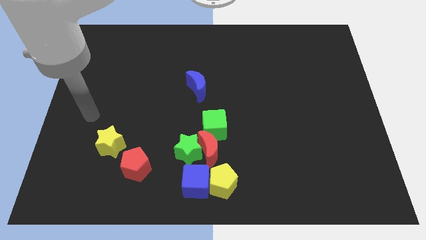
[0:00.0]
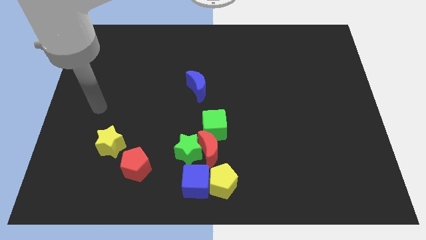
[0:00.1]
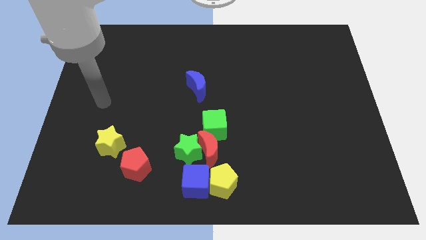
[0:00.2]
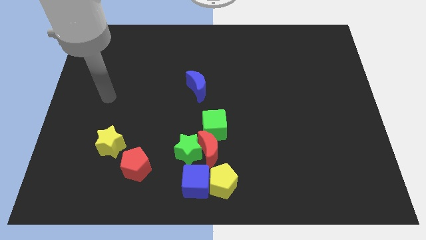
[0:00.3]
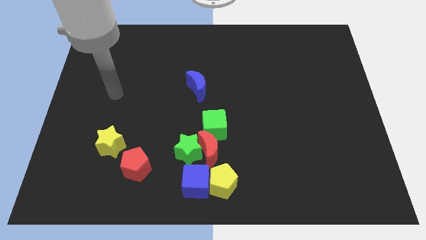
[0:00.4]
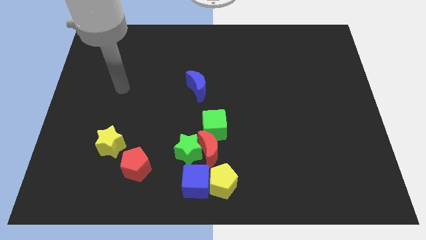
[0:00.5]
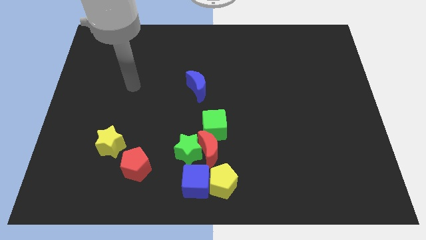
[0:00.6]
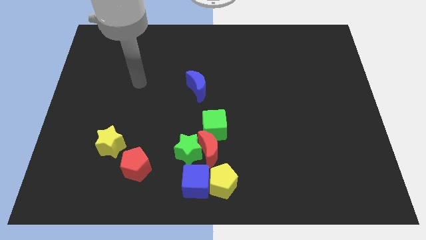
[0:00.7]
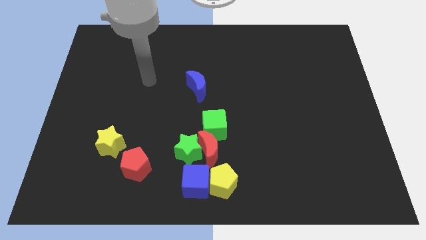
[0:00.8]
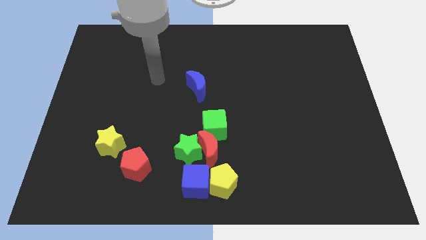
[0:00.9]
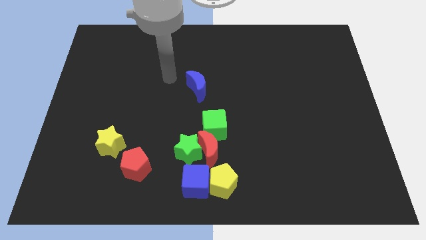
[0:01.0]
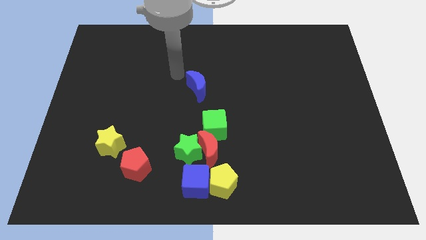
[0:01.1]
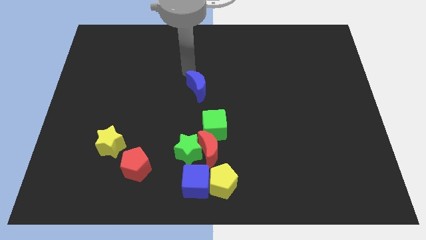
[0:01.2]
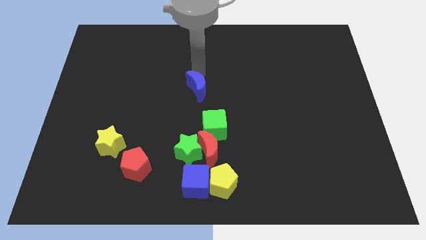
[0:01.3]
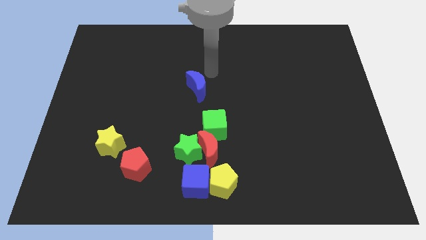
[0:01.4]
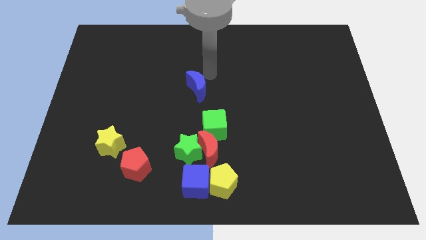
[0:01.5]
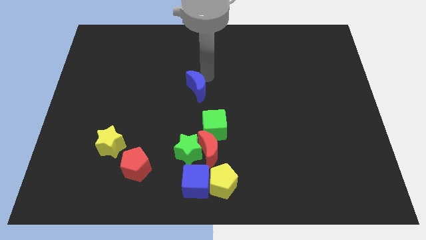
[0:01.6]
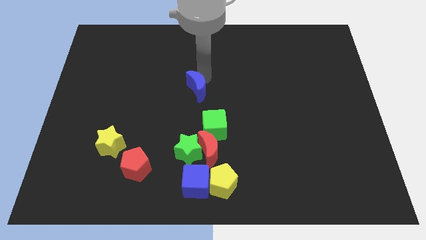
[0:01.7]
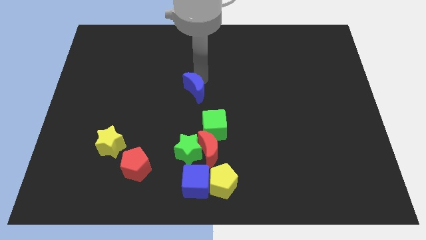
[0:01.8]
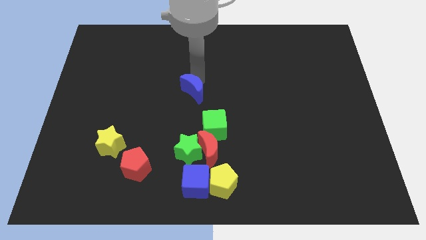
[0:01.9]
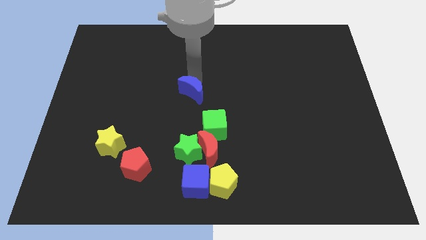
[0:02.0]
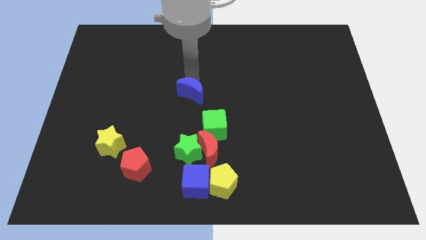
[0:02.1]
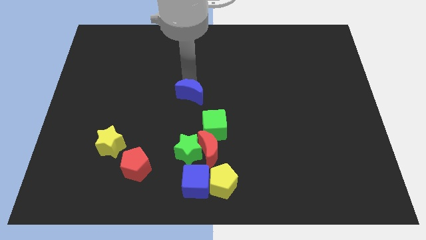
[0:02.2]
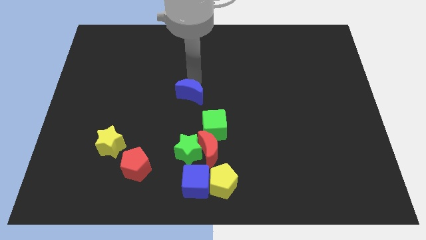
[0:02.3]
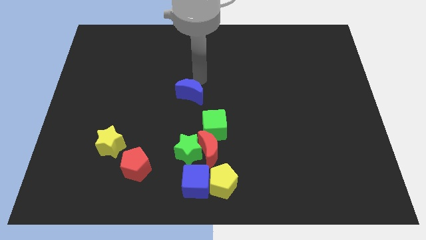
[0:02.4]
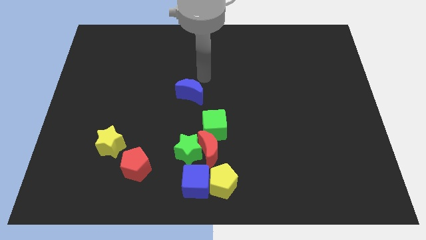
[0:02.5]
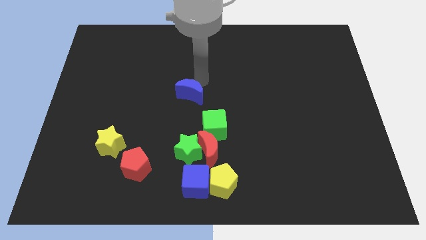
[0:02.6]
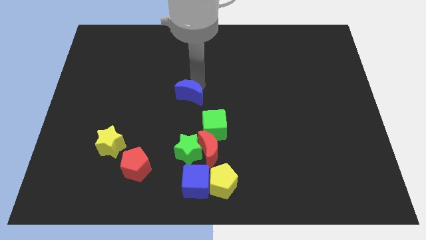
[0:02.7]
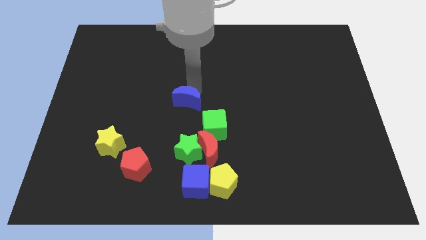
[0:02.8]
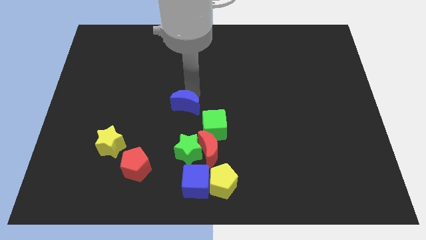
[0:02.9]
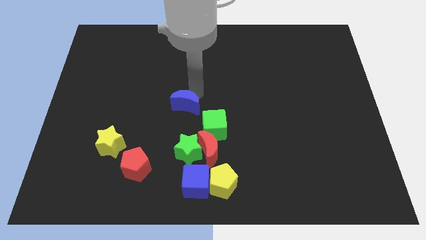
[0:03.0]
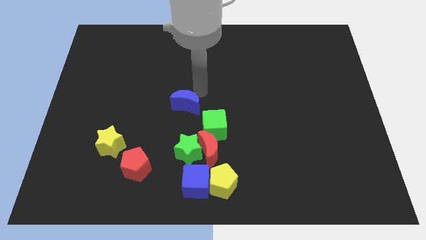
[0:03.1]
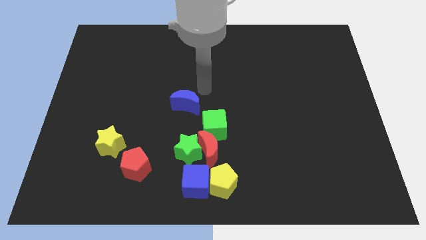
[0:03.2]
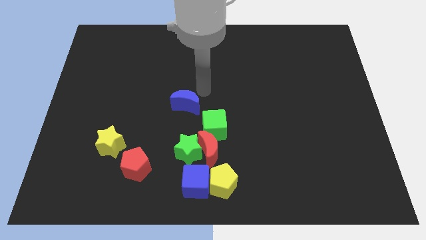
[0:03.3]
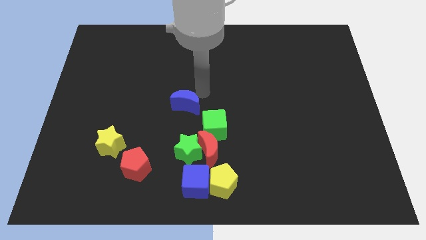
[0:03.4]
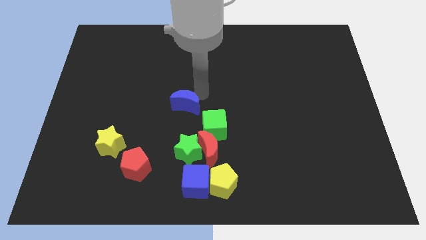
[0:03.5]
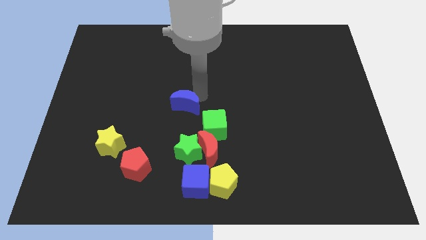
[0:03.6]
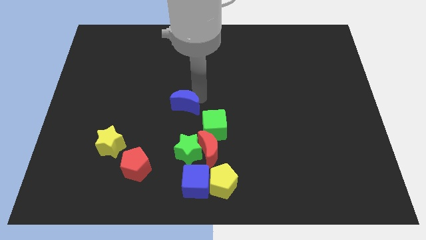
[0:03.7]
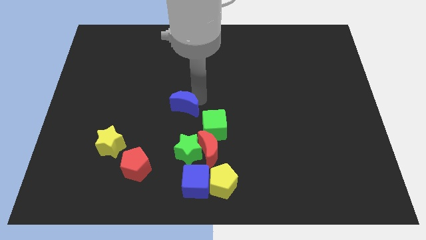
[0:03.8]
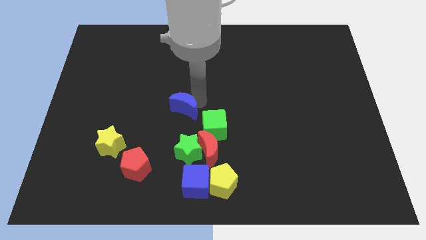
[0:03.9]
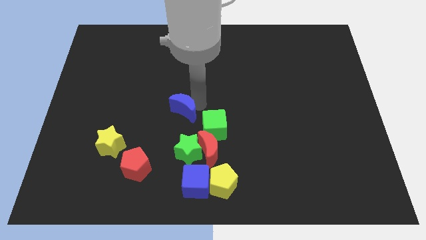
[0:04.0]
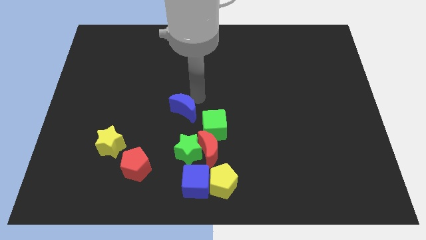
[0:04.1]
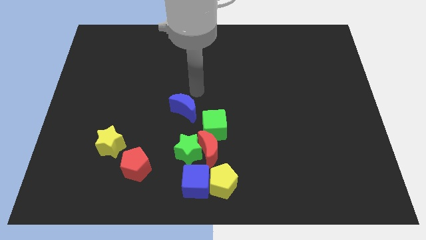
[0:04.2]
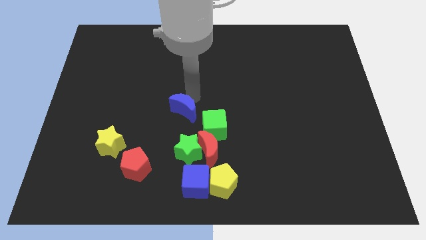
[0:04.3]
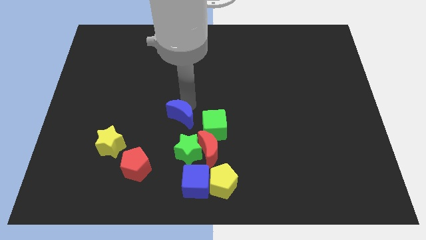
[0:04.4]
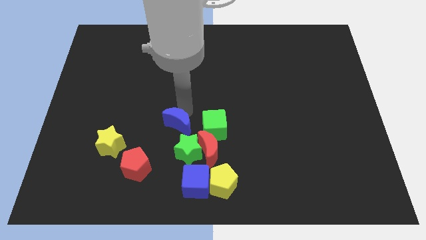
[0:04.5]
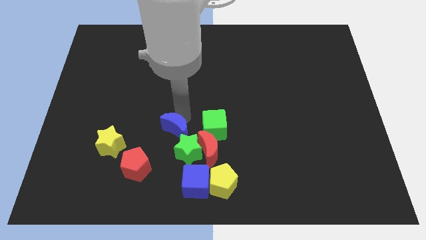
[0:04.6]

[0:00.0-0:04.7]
push the blue moon diagonally up and to the right of the red pentagon

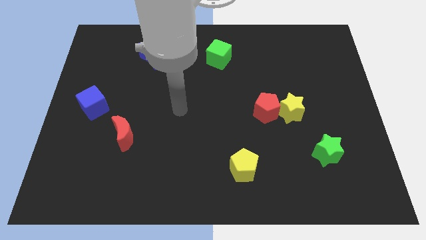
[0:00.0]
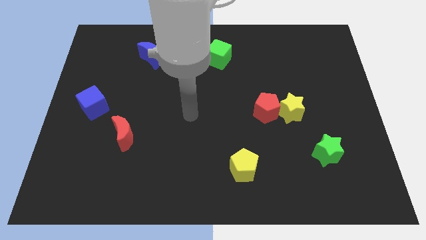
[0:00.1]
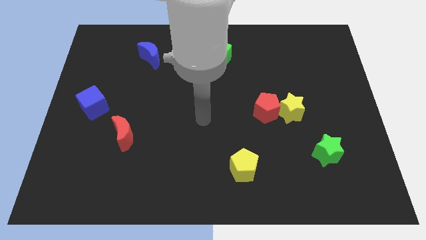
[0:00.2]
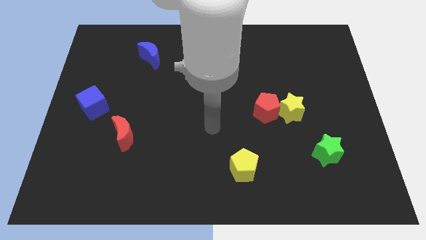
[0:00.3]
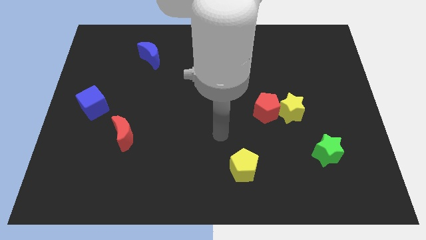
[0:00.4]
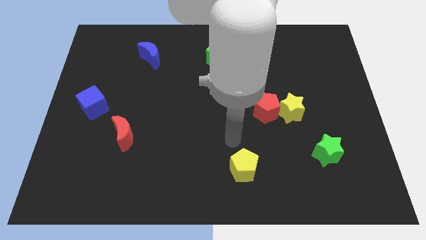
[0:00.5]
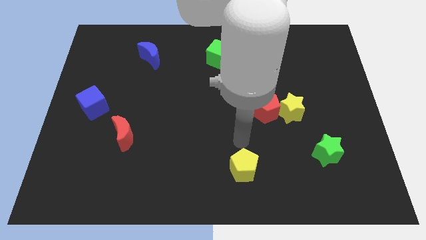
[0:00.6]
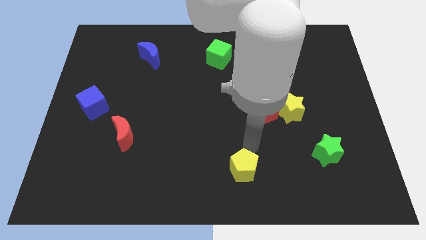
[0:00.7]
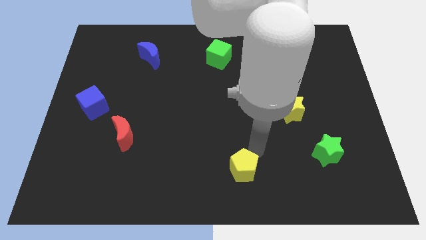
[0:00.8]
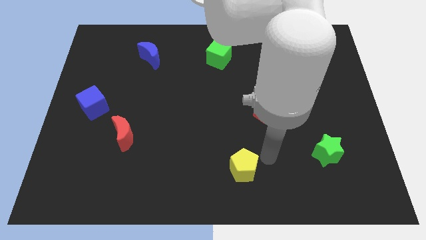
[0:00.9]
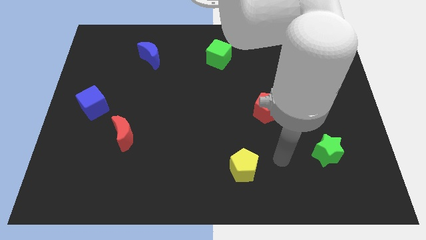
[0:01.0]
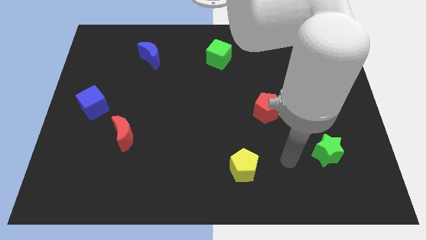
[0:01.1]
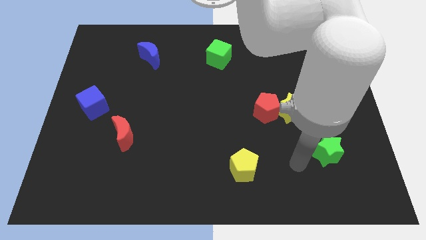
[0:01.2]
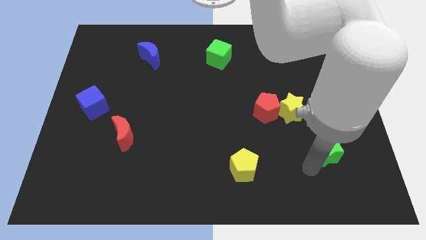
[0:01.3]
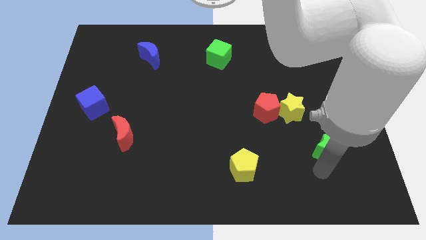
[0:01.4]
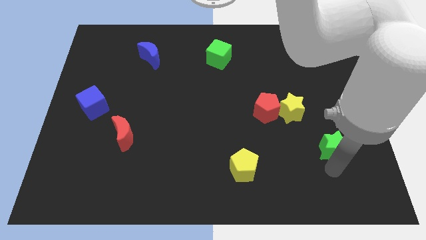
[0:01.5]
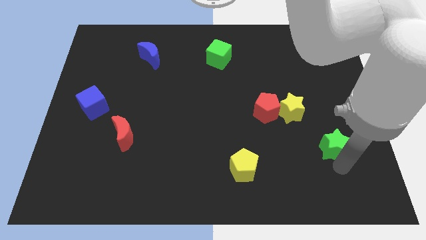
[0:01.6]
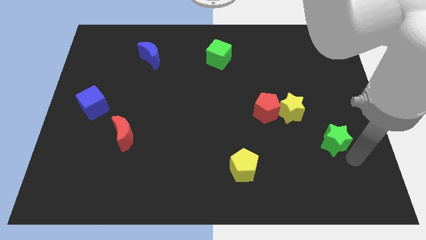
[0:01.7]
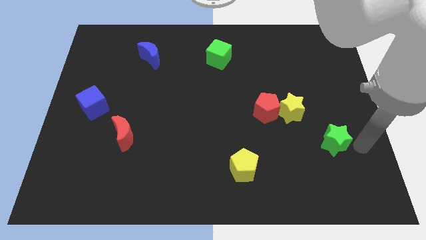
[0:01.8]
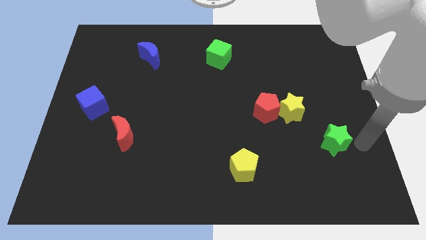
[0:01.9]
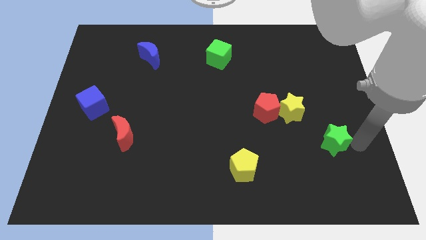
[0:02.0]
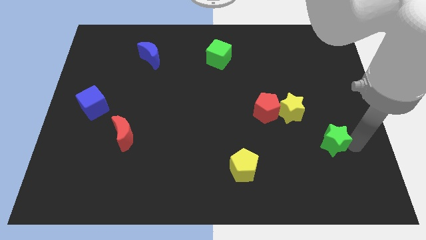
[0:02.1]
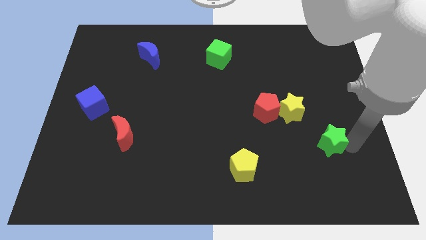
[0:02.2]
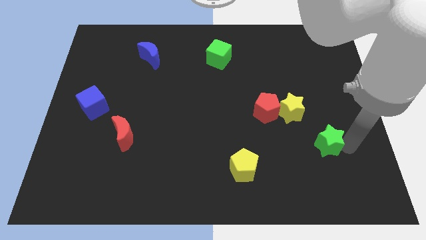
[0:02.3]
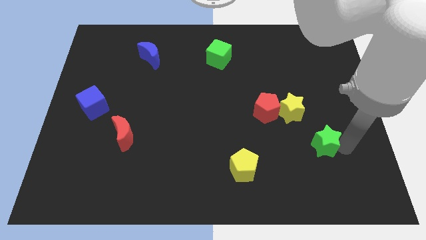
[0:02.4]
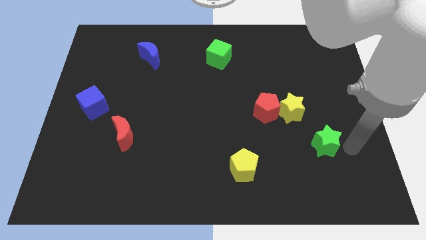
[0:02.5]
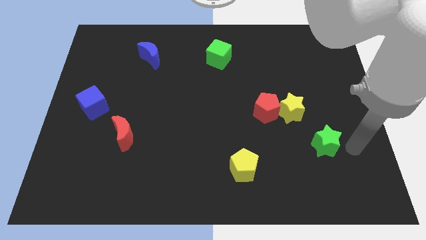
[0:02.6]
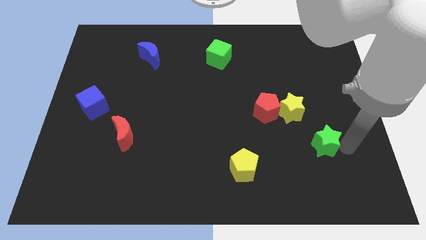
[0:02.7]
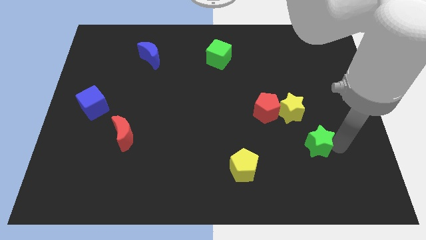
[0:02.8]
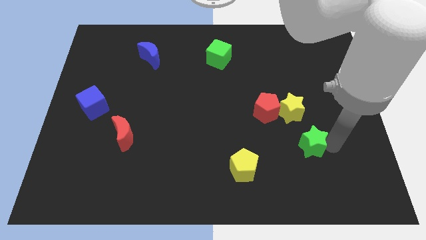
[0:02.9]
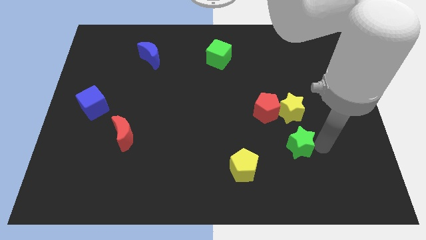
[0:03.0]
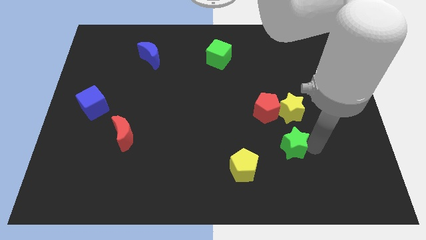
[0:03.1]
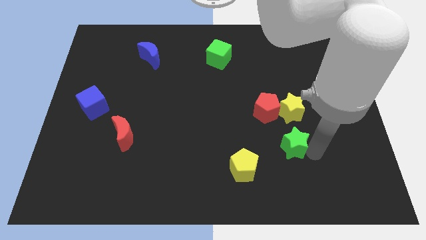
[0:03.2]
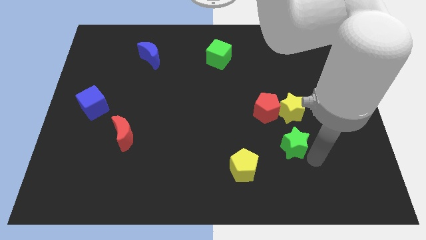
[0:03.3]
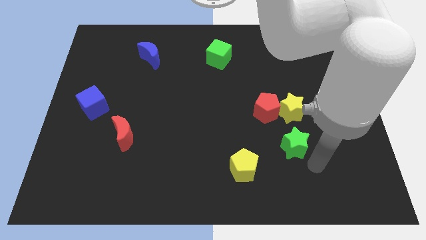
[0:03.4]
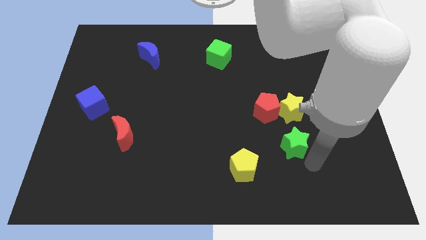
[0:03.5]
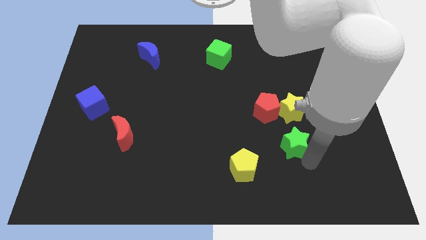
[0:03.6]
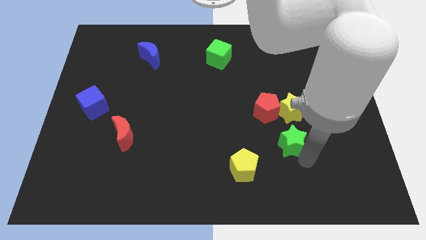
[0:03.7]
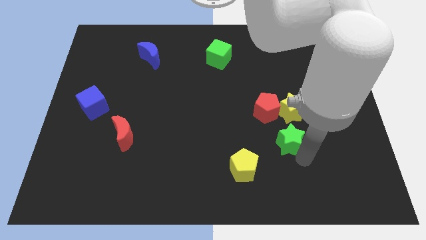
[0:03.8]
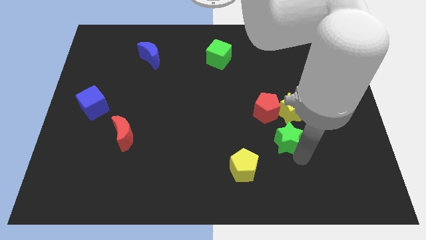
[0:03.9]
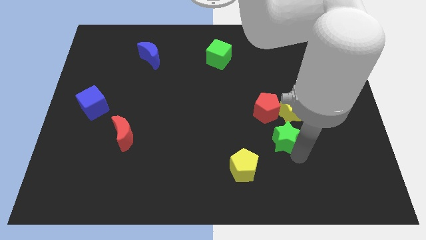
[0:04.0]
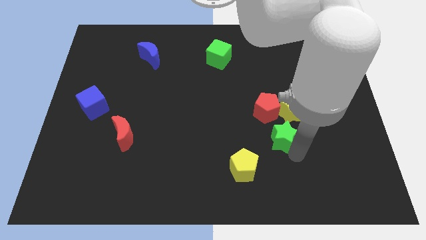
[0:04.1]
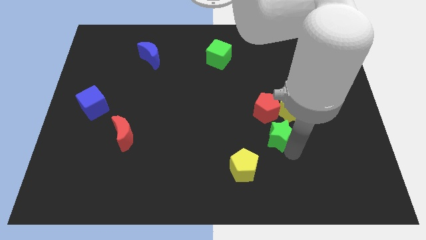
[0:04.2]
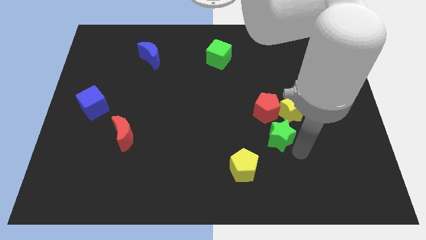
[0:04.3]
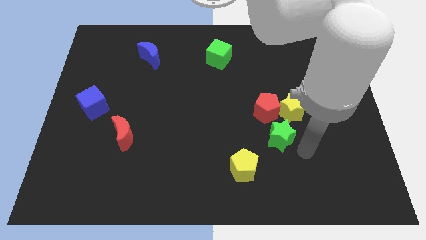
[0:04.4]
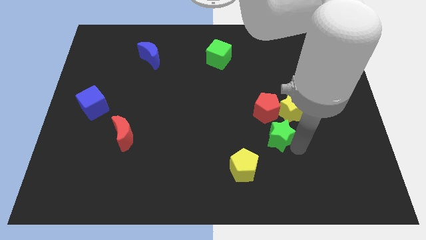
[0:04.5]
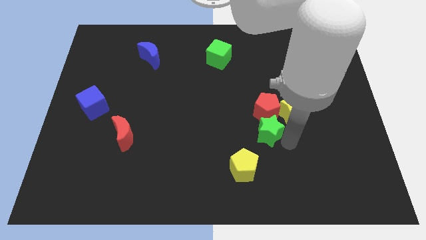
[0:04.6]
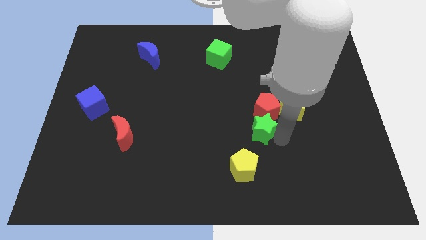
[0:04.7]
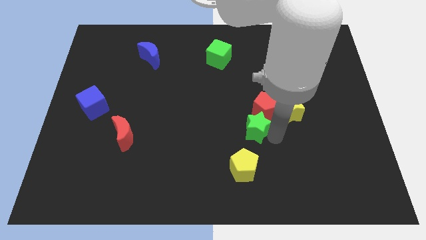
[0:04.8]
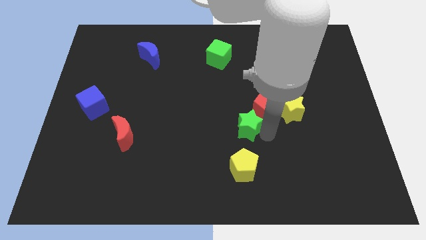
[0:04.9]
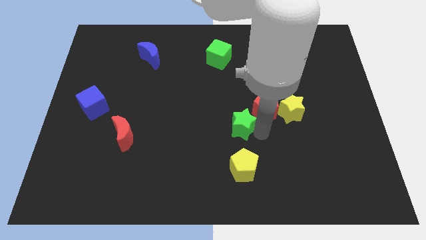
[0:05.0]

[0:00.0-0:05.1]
move the green star just left of the red pentagon
